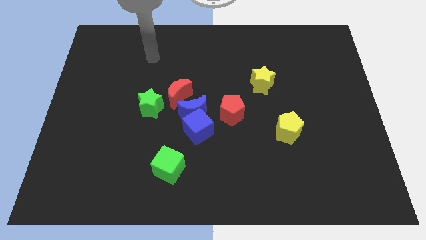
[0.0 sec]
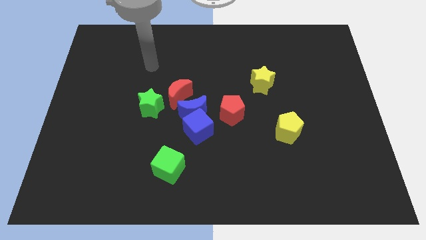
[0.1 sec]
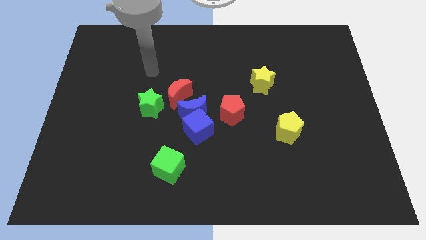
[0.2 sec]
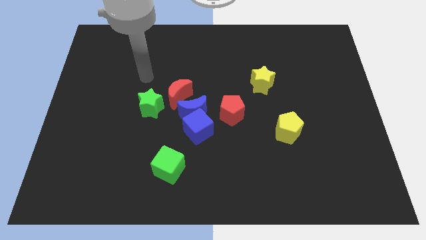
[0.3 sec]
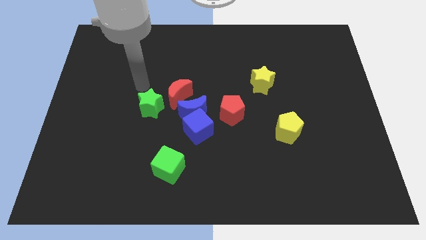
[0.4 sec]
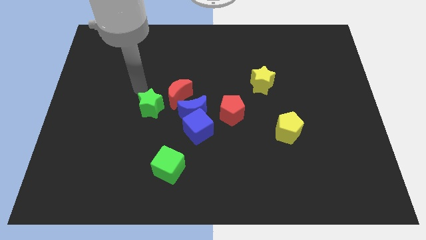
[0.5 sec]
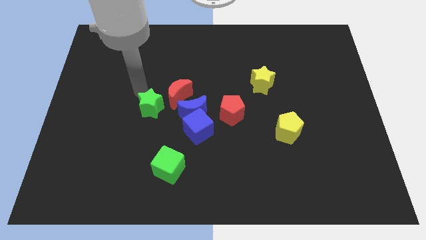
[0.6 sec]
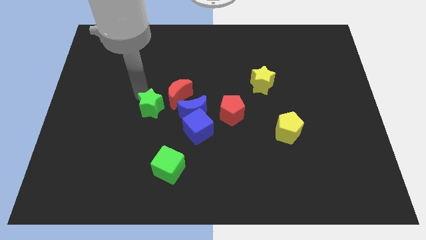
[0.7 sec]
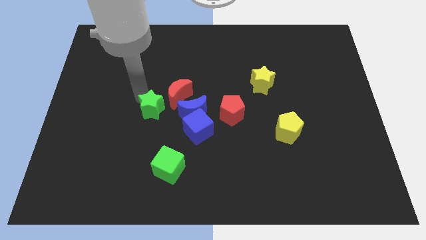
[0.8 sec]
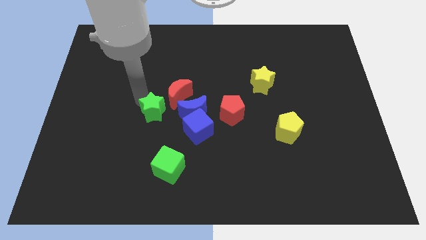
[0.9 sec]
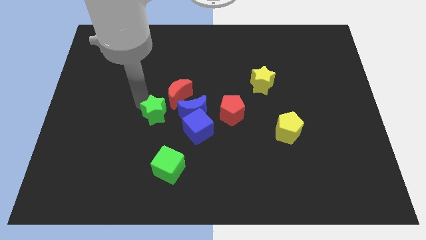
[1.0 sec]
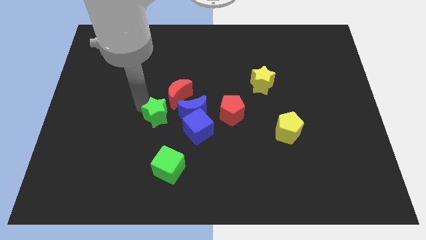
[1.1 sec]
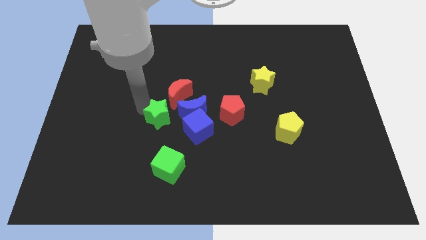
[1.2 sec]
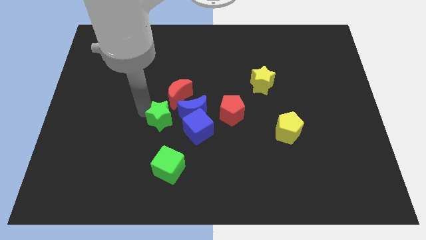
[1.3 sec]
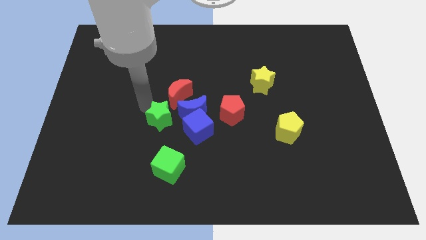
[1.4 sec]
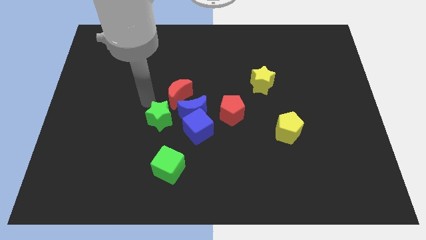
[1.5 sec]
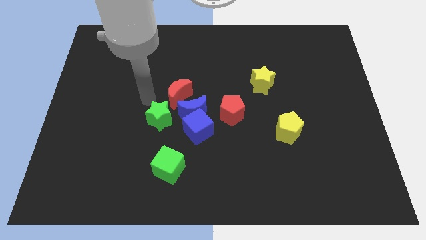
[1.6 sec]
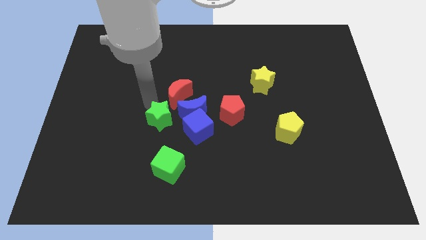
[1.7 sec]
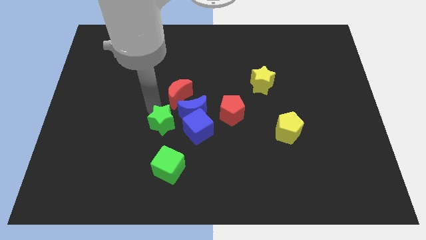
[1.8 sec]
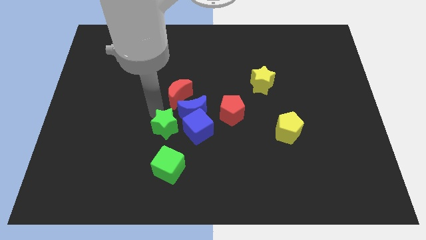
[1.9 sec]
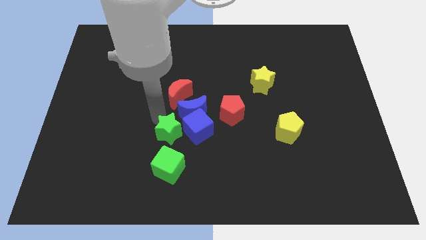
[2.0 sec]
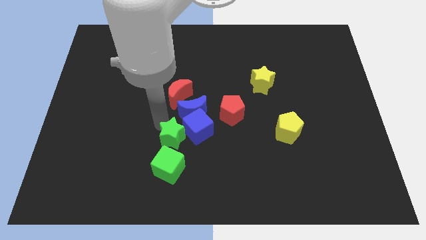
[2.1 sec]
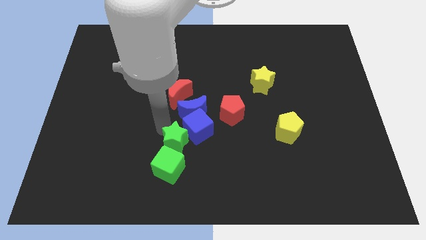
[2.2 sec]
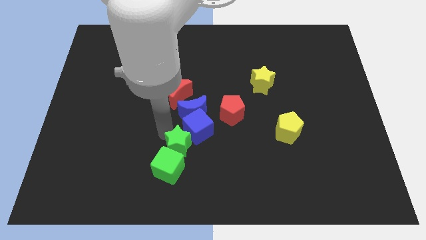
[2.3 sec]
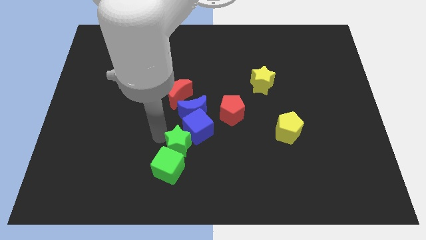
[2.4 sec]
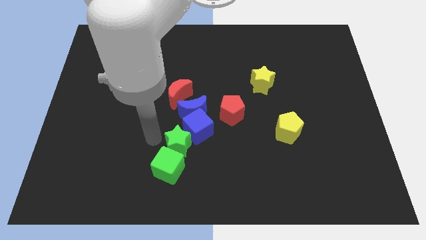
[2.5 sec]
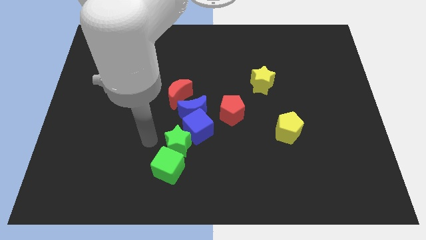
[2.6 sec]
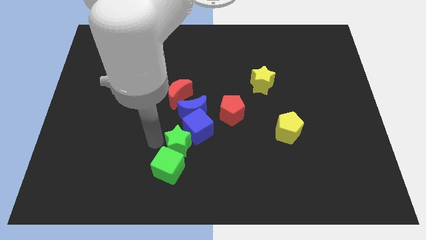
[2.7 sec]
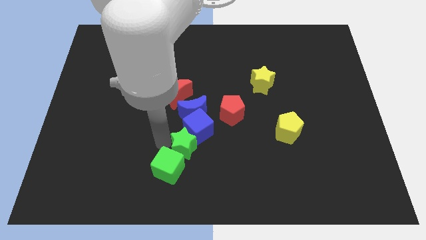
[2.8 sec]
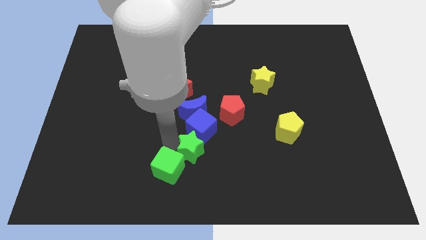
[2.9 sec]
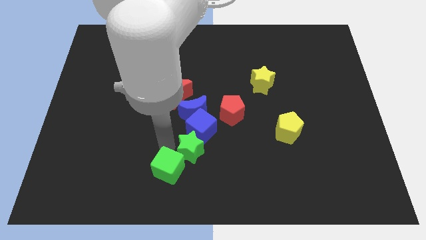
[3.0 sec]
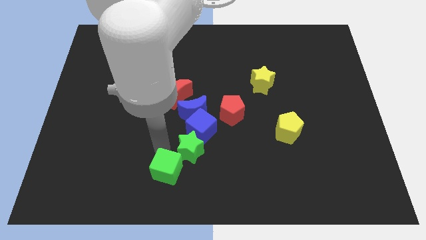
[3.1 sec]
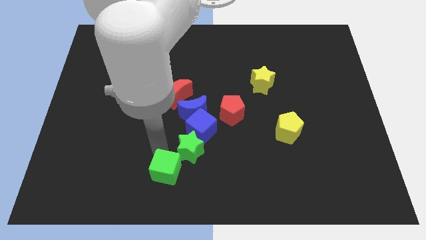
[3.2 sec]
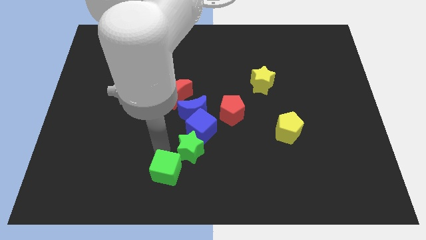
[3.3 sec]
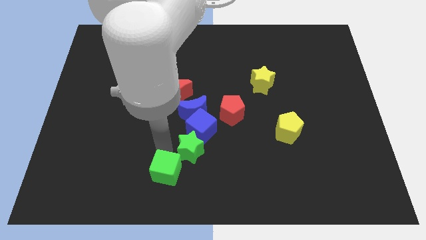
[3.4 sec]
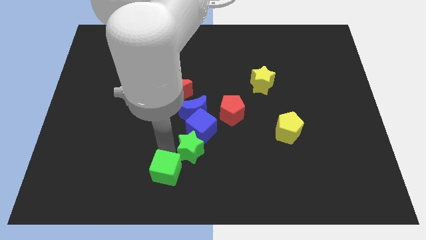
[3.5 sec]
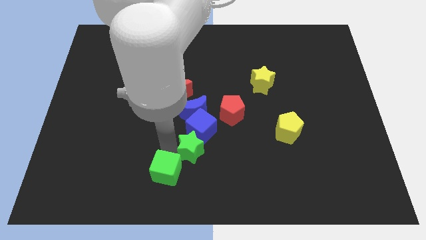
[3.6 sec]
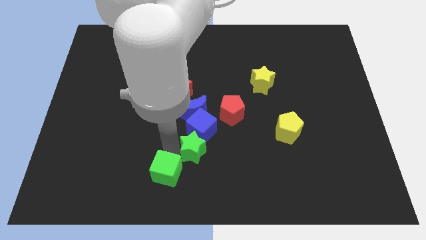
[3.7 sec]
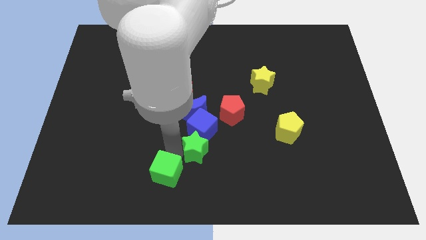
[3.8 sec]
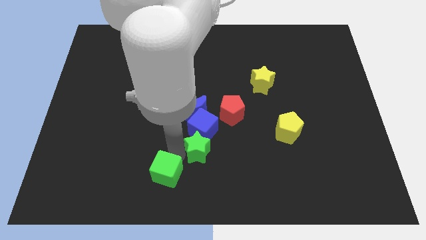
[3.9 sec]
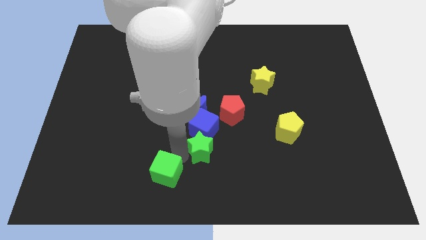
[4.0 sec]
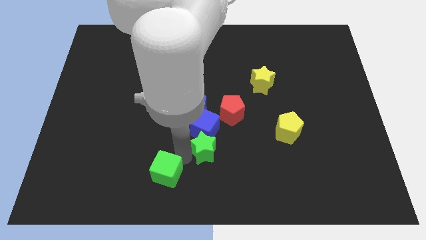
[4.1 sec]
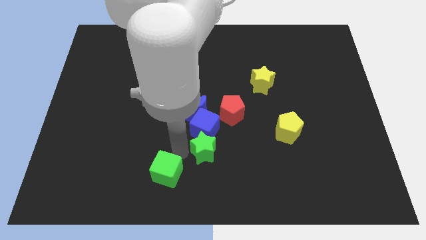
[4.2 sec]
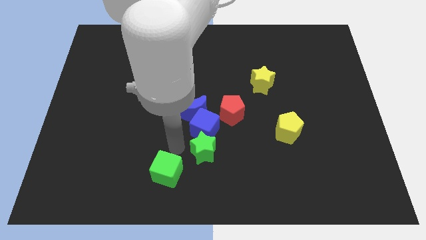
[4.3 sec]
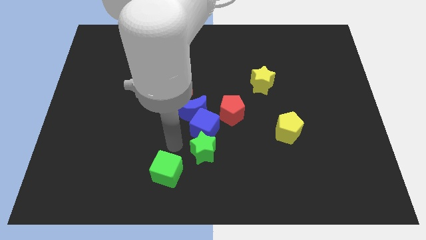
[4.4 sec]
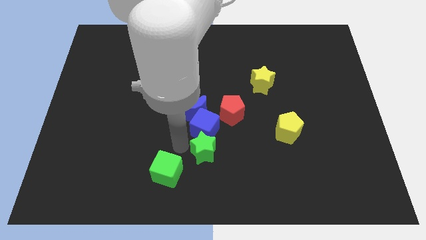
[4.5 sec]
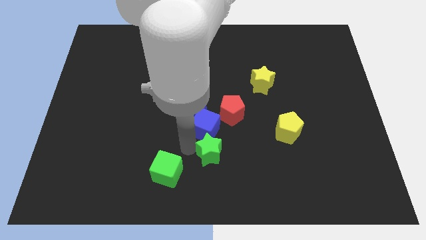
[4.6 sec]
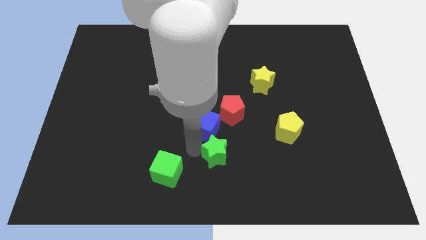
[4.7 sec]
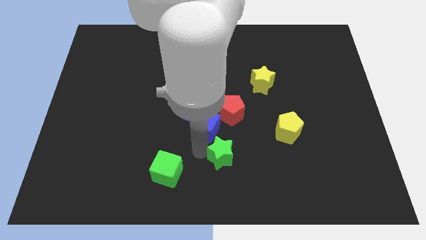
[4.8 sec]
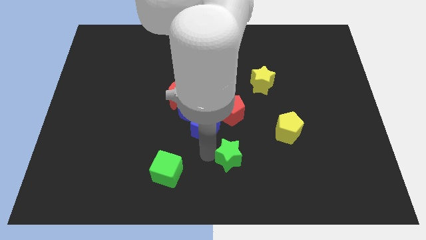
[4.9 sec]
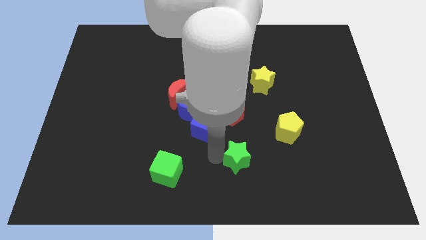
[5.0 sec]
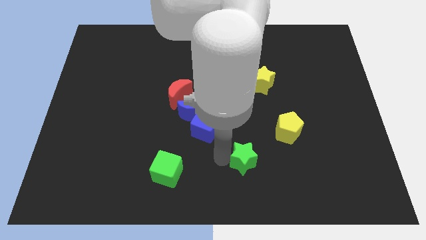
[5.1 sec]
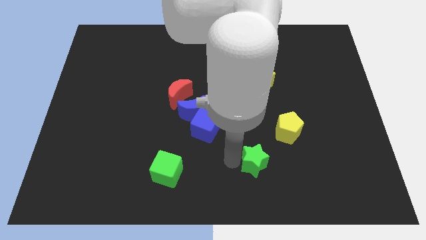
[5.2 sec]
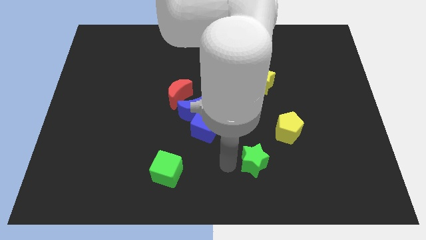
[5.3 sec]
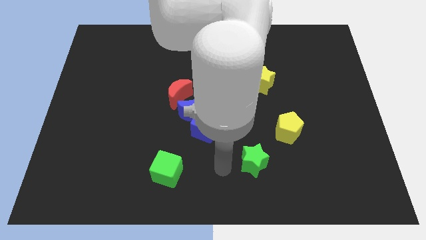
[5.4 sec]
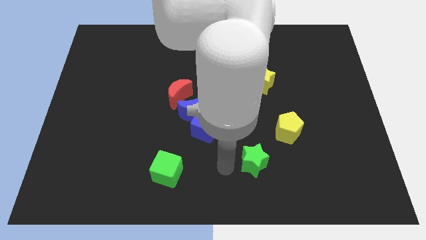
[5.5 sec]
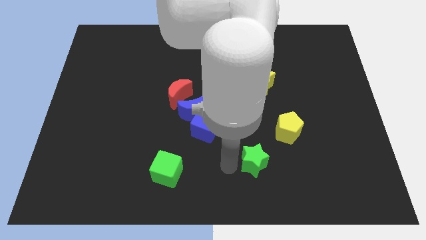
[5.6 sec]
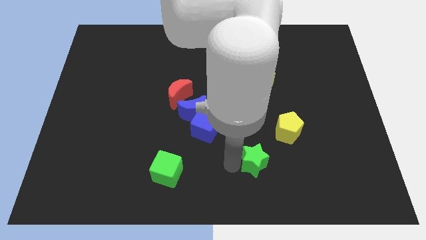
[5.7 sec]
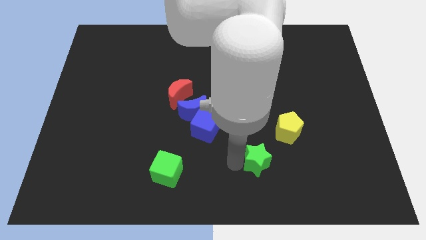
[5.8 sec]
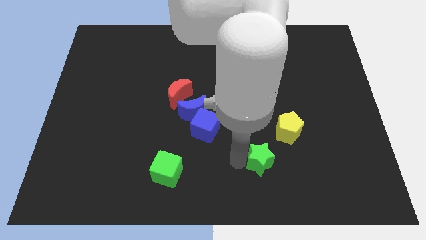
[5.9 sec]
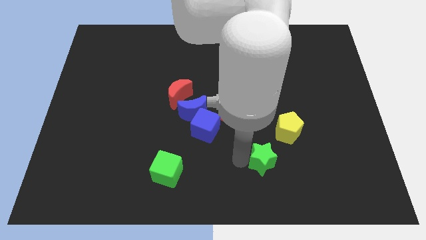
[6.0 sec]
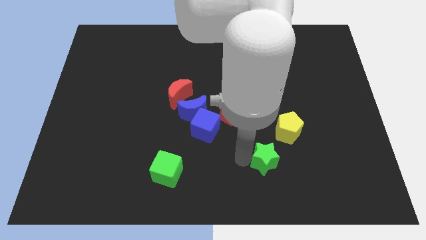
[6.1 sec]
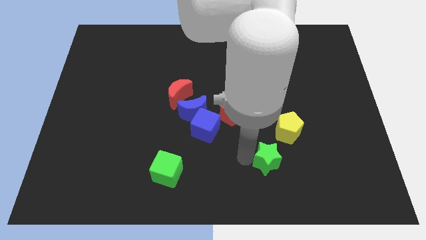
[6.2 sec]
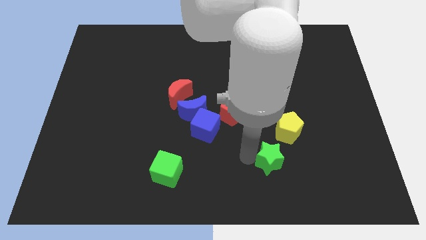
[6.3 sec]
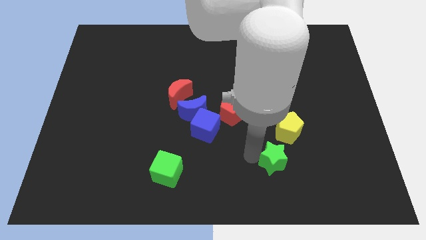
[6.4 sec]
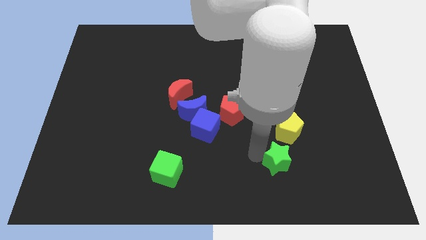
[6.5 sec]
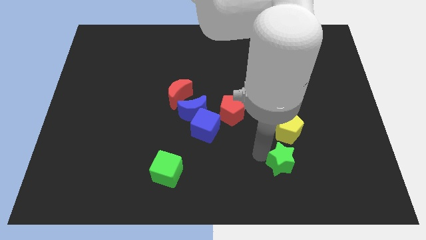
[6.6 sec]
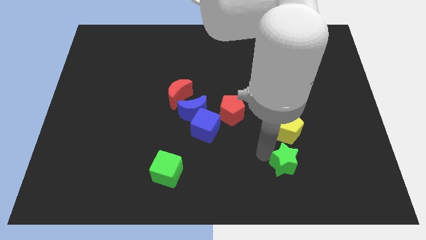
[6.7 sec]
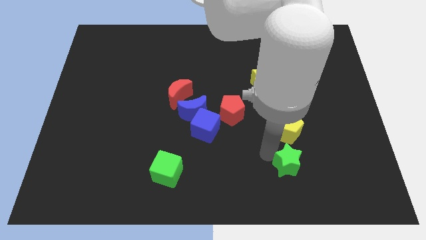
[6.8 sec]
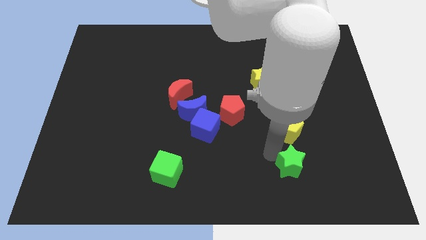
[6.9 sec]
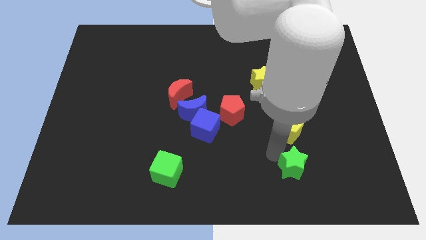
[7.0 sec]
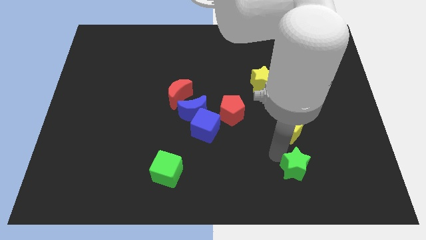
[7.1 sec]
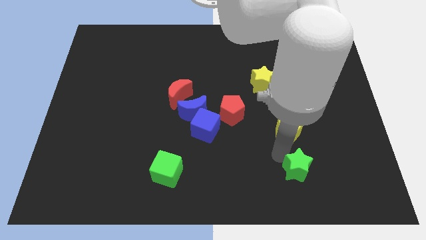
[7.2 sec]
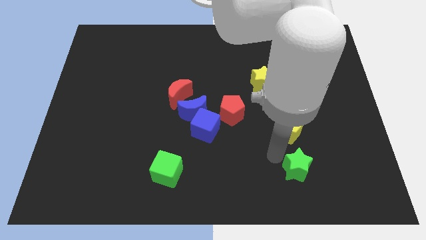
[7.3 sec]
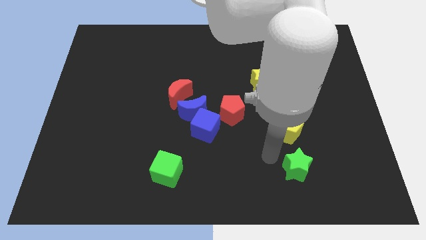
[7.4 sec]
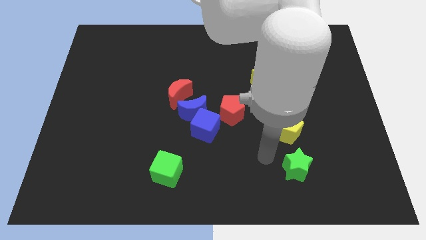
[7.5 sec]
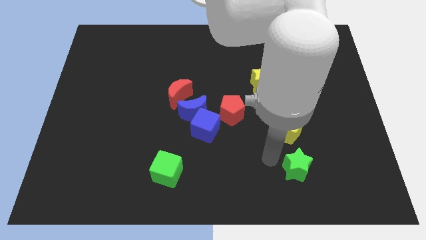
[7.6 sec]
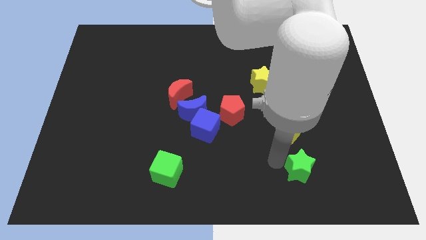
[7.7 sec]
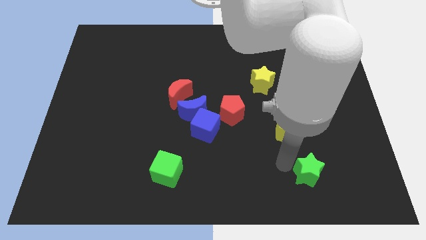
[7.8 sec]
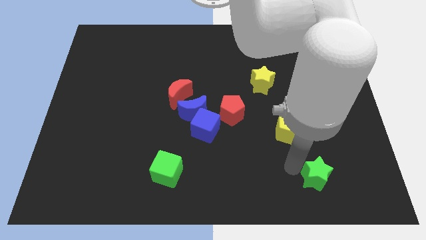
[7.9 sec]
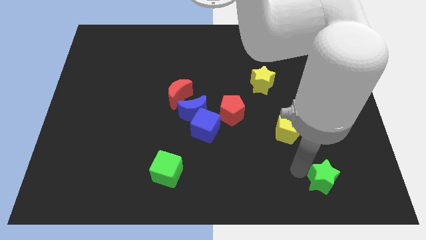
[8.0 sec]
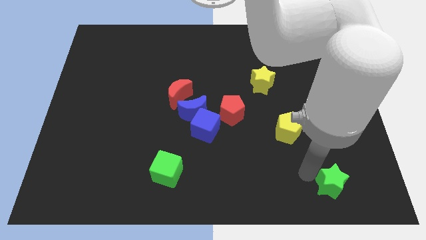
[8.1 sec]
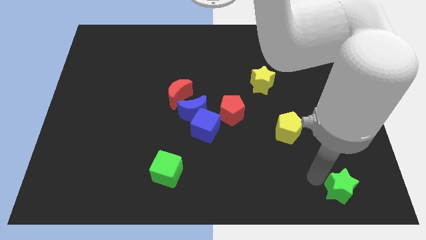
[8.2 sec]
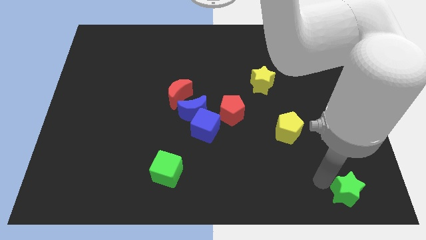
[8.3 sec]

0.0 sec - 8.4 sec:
push the green star to the bottom right of the board
